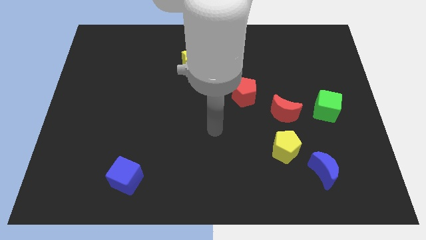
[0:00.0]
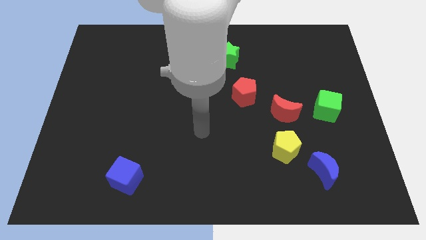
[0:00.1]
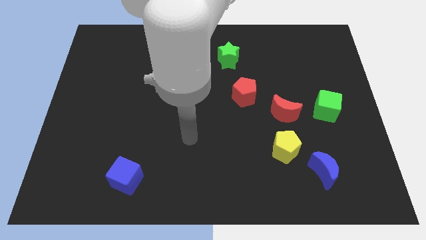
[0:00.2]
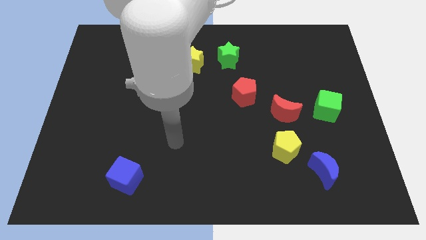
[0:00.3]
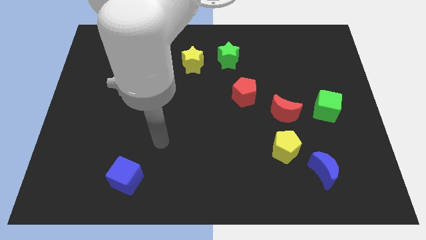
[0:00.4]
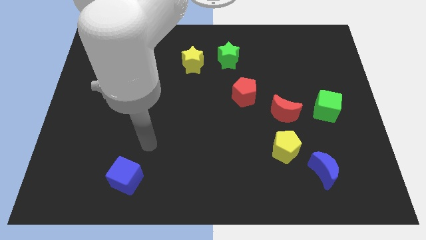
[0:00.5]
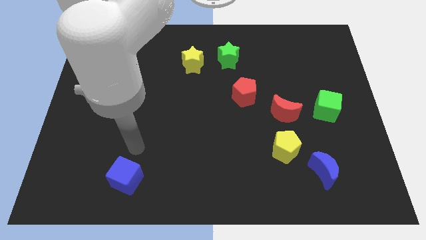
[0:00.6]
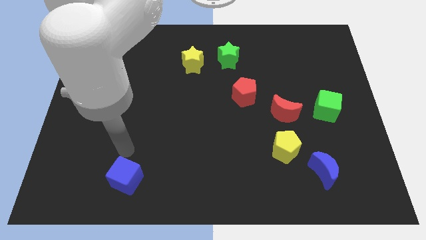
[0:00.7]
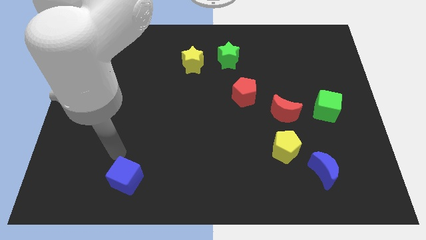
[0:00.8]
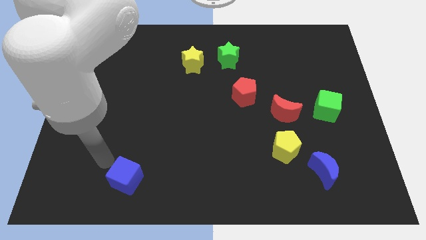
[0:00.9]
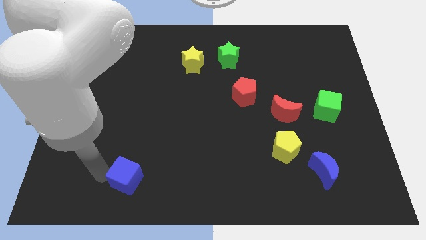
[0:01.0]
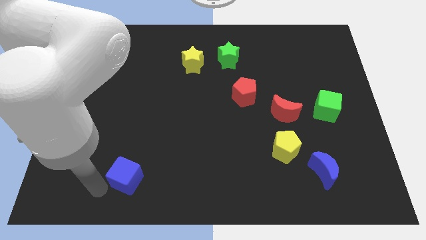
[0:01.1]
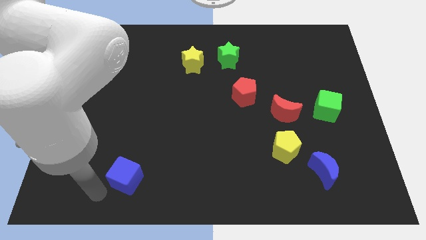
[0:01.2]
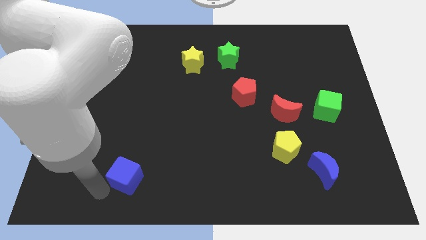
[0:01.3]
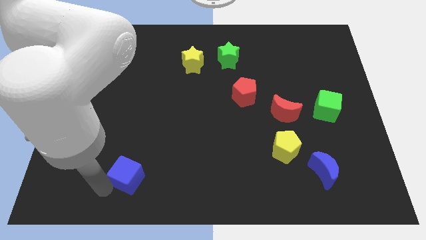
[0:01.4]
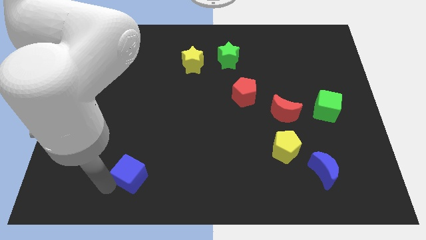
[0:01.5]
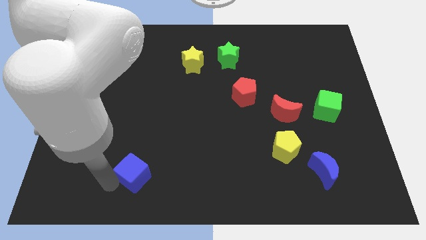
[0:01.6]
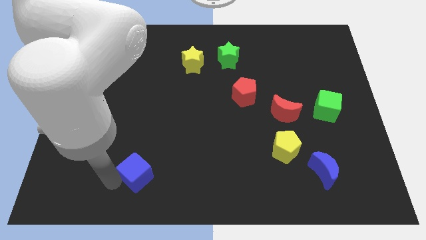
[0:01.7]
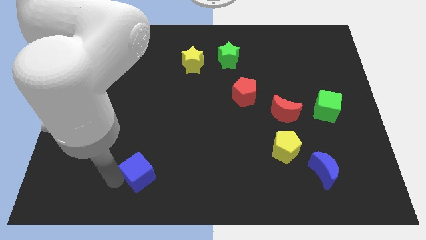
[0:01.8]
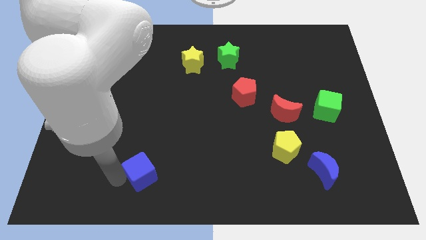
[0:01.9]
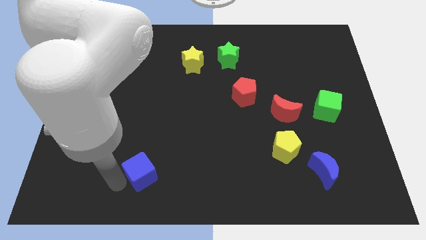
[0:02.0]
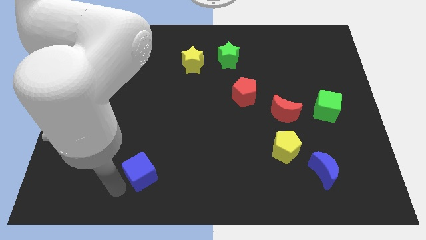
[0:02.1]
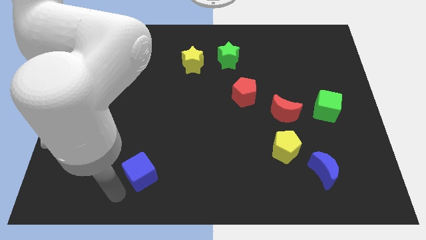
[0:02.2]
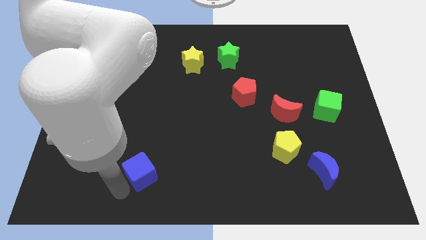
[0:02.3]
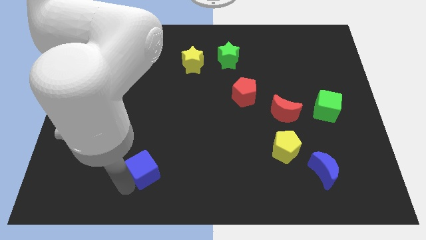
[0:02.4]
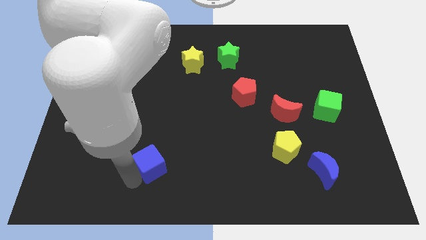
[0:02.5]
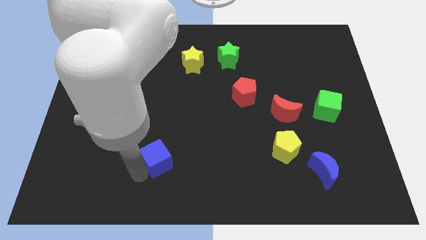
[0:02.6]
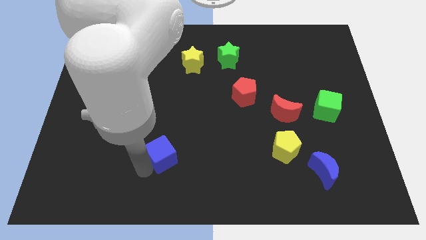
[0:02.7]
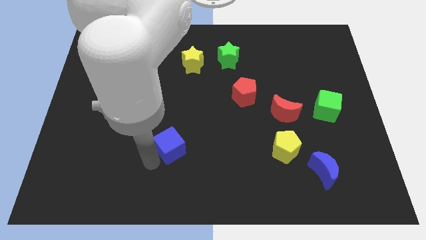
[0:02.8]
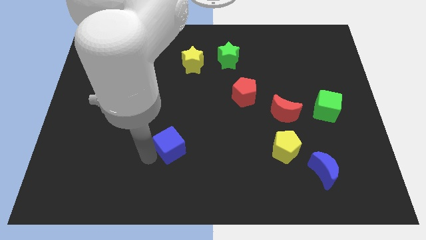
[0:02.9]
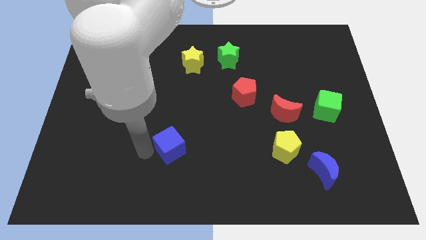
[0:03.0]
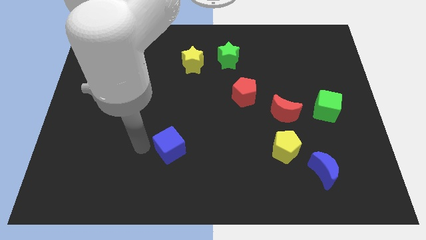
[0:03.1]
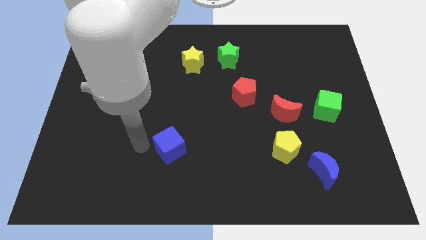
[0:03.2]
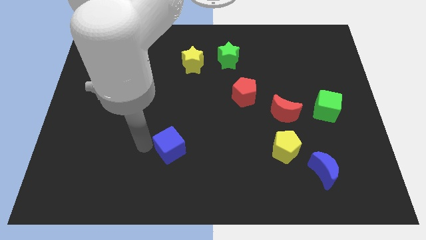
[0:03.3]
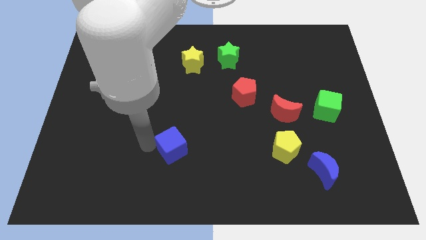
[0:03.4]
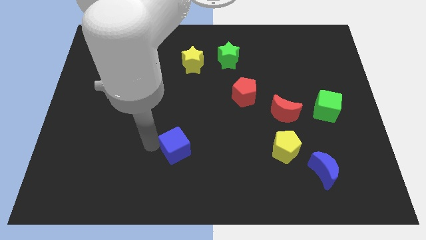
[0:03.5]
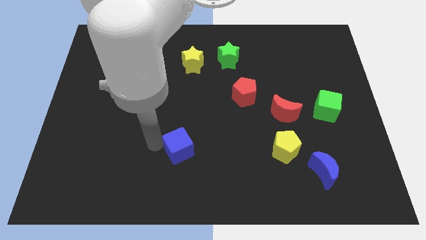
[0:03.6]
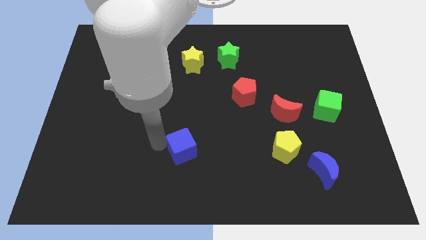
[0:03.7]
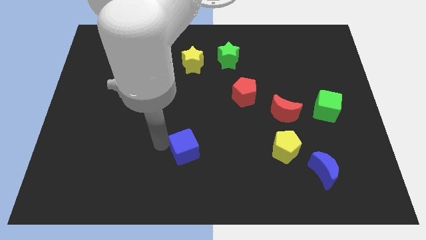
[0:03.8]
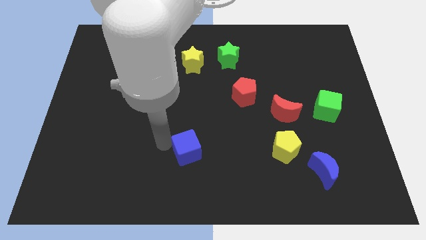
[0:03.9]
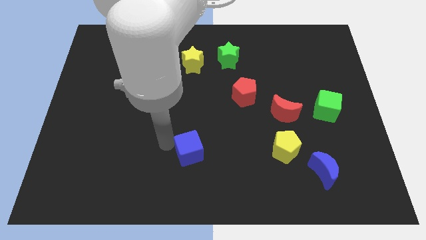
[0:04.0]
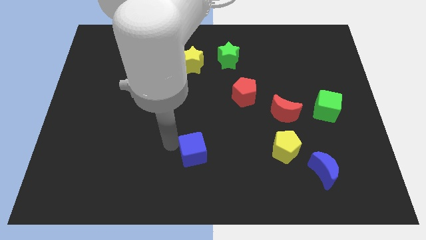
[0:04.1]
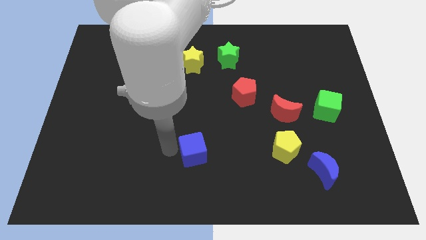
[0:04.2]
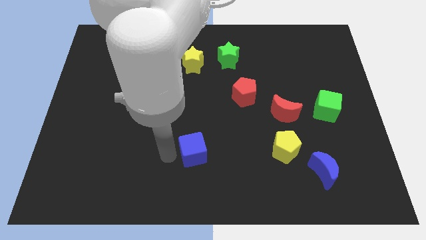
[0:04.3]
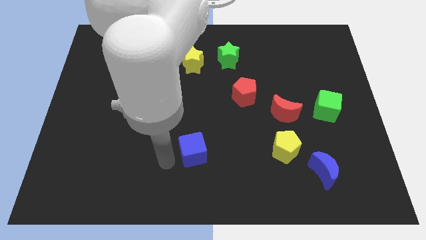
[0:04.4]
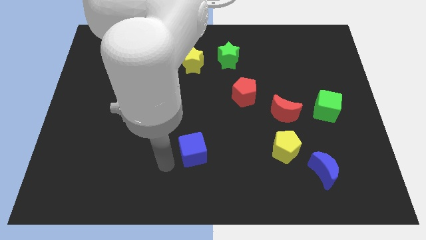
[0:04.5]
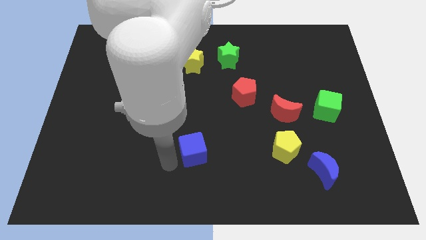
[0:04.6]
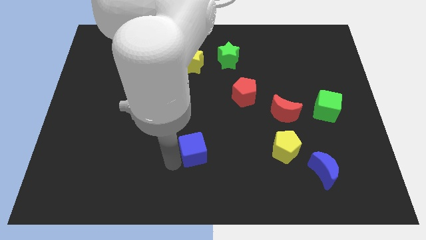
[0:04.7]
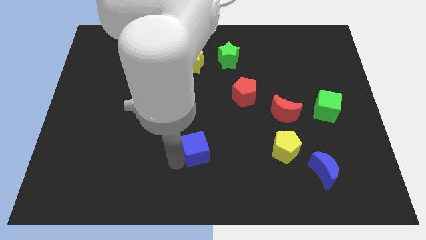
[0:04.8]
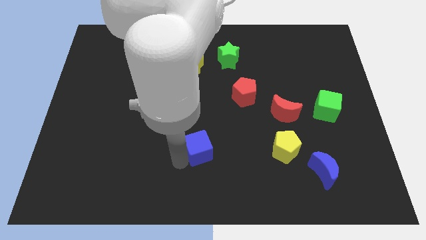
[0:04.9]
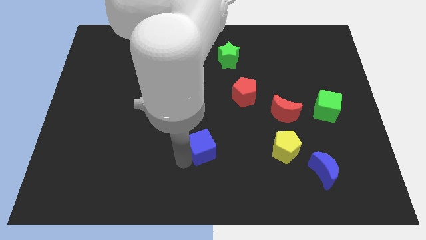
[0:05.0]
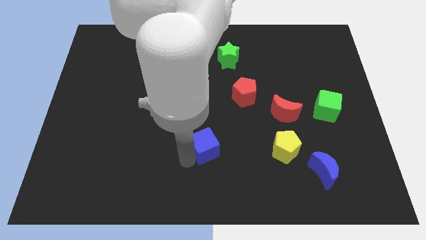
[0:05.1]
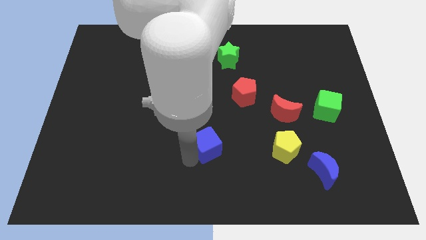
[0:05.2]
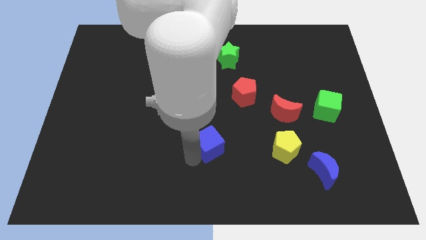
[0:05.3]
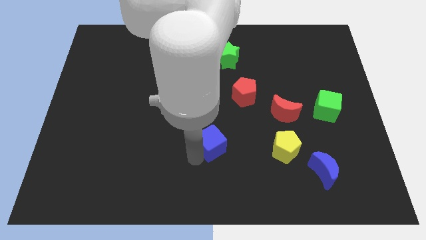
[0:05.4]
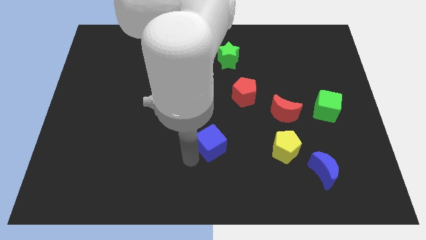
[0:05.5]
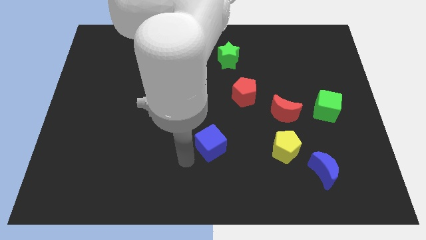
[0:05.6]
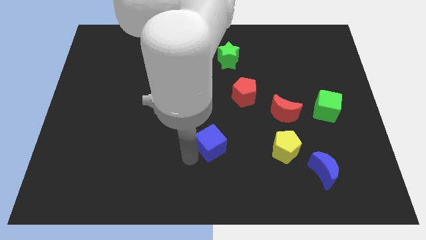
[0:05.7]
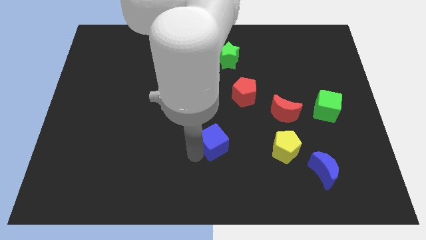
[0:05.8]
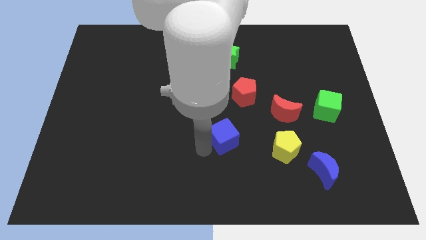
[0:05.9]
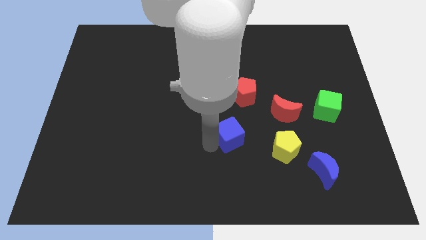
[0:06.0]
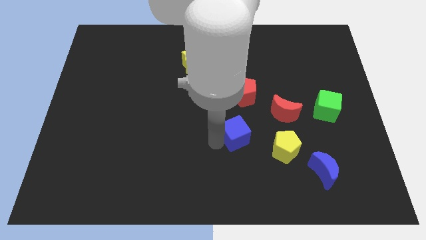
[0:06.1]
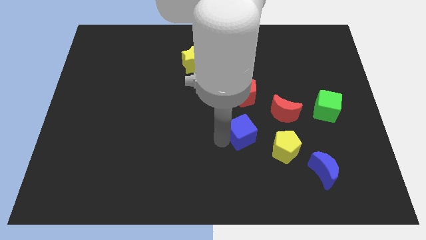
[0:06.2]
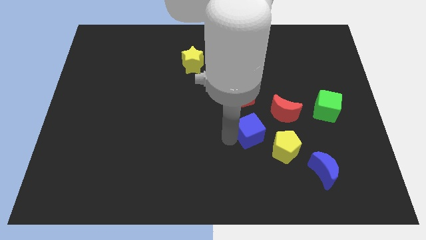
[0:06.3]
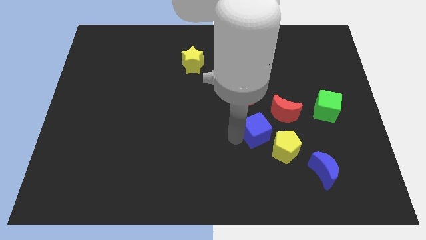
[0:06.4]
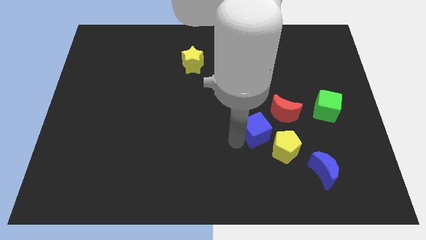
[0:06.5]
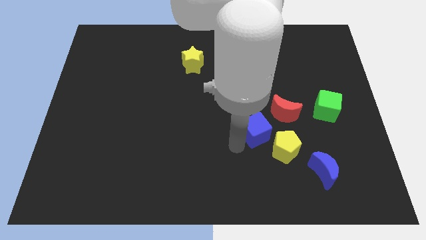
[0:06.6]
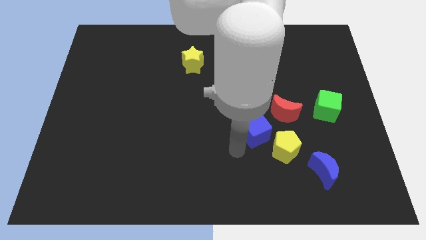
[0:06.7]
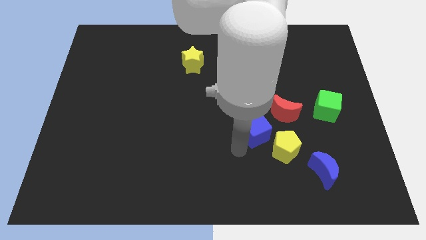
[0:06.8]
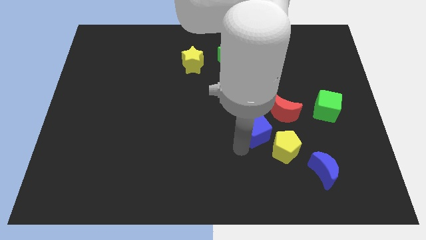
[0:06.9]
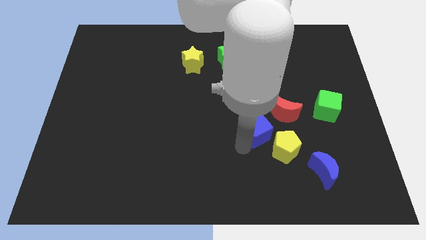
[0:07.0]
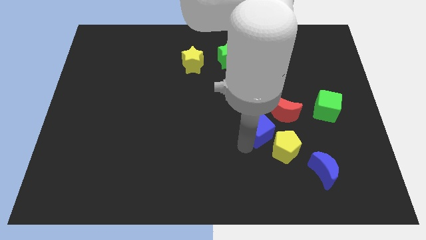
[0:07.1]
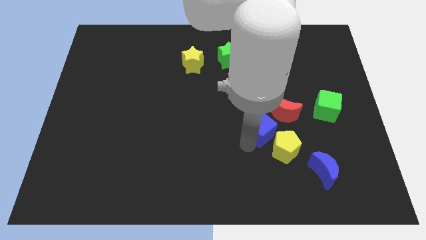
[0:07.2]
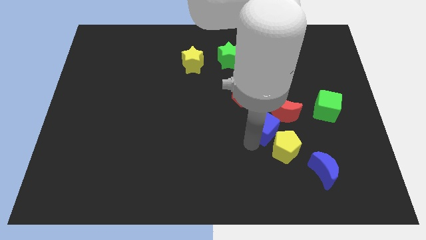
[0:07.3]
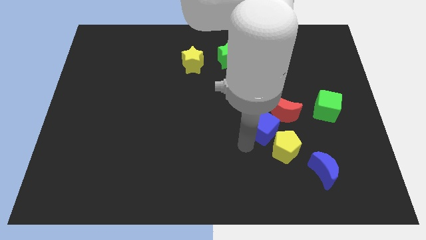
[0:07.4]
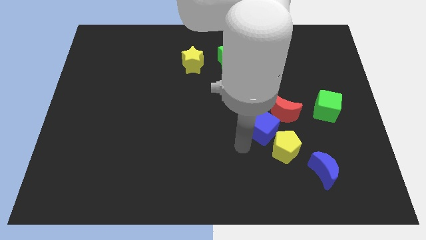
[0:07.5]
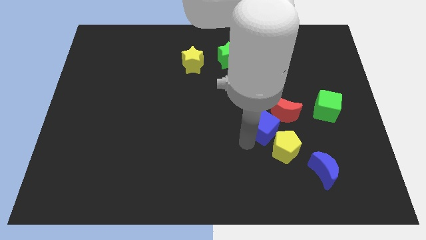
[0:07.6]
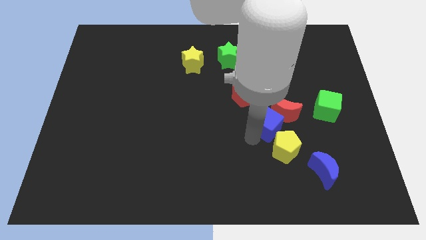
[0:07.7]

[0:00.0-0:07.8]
put the blue cube towards the red moon
